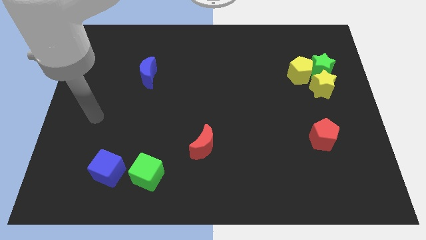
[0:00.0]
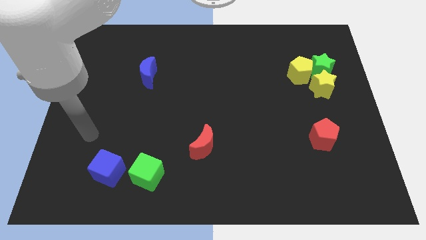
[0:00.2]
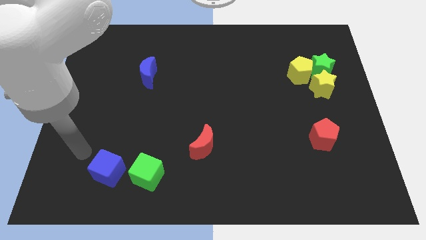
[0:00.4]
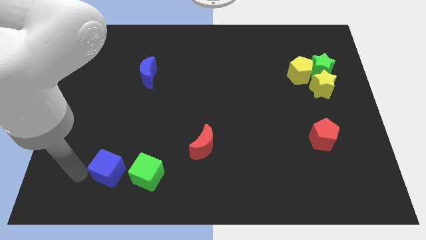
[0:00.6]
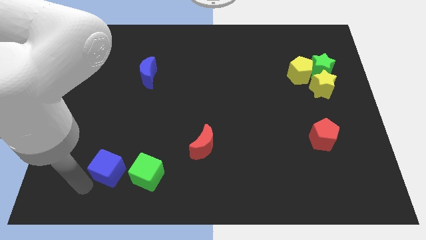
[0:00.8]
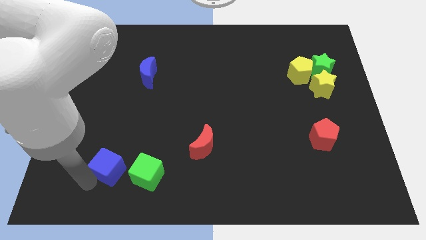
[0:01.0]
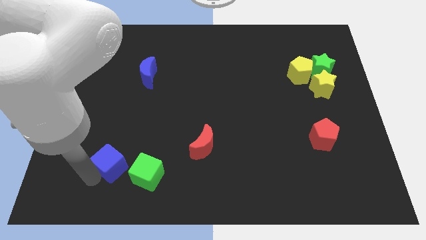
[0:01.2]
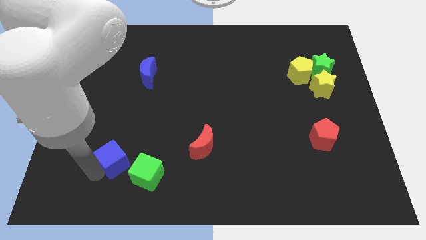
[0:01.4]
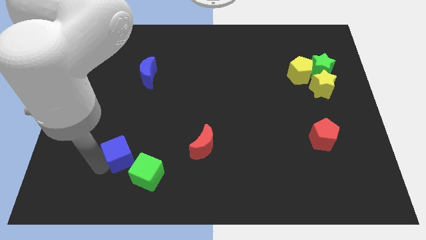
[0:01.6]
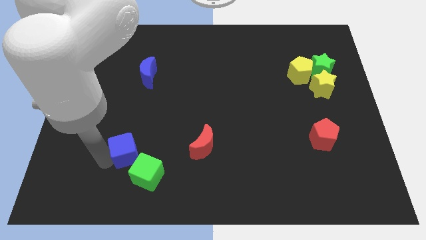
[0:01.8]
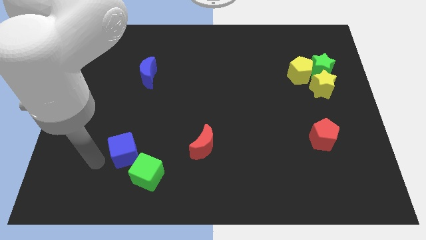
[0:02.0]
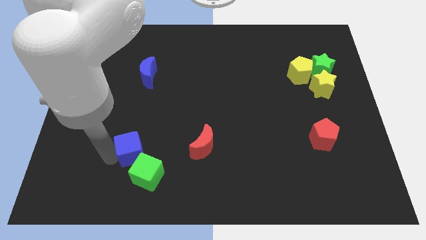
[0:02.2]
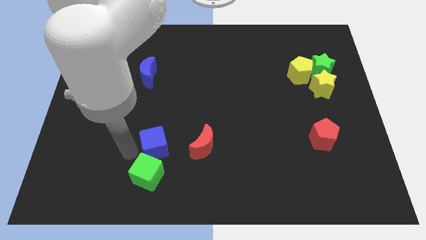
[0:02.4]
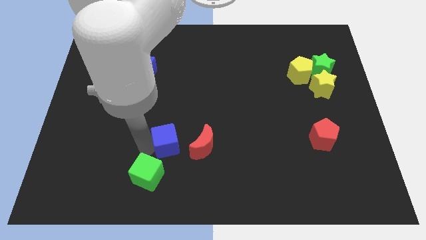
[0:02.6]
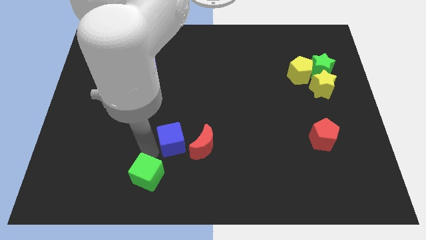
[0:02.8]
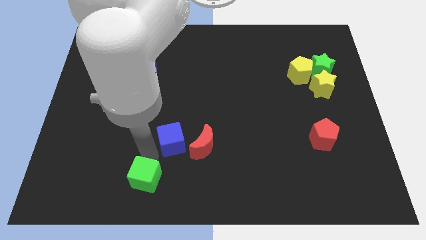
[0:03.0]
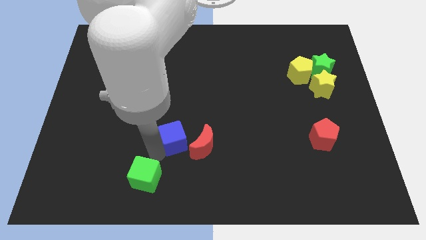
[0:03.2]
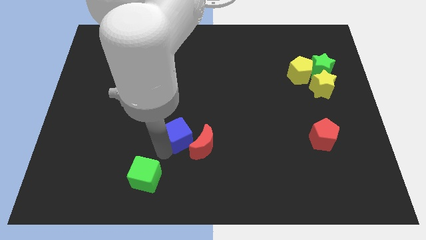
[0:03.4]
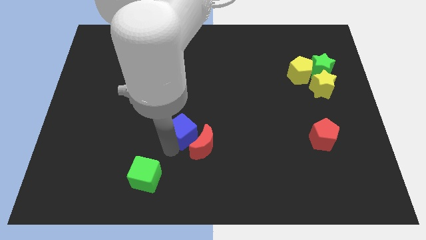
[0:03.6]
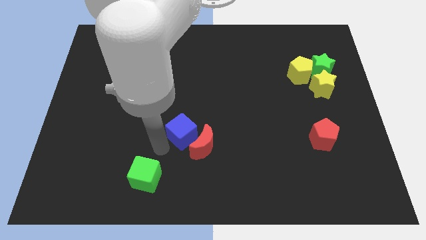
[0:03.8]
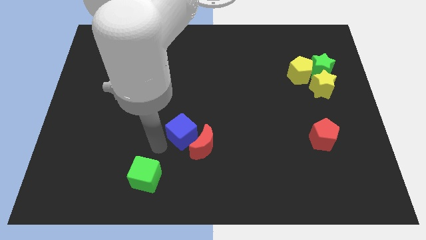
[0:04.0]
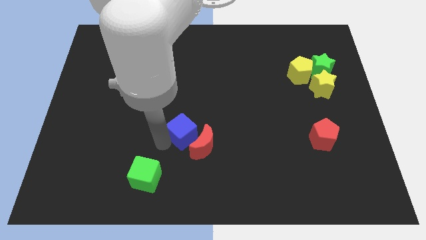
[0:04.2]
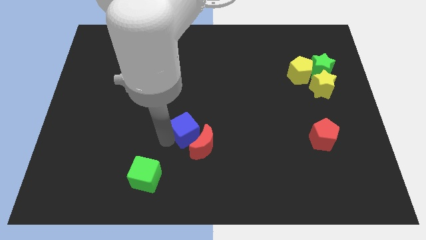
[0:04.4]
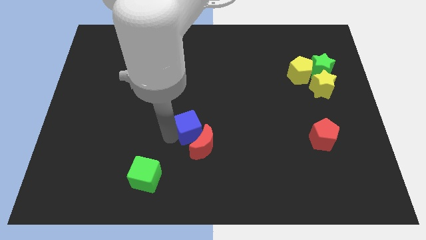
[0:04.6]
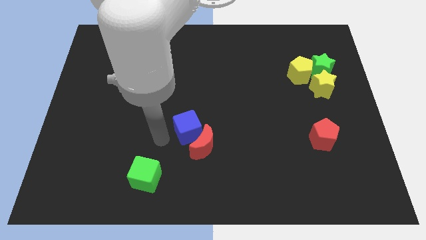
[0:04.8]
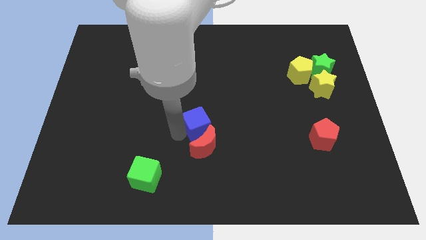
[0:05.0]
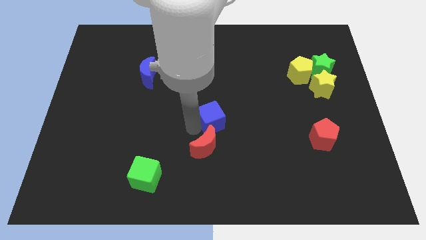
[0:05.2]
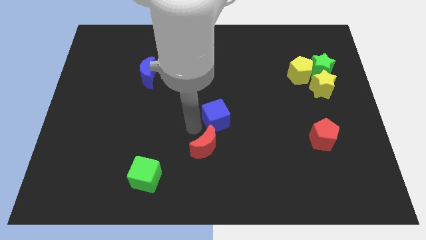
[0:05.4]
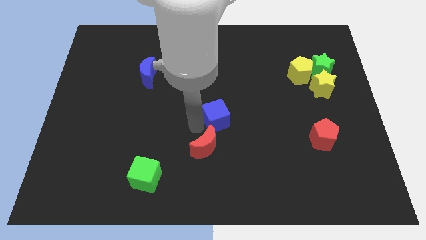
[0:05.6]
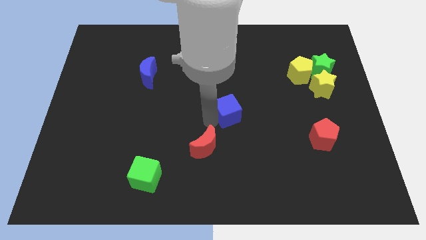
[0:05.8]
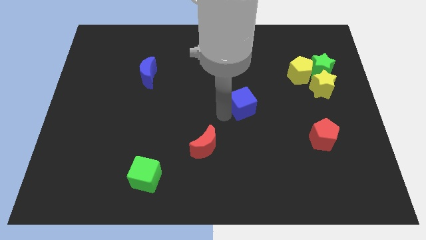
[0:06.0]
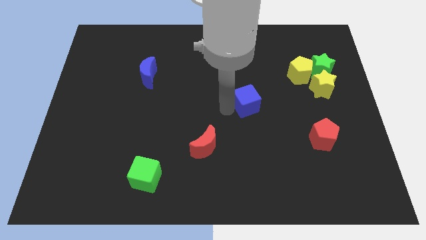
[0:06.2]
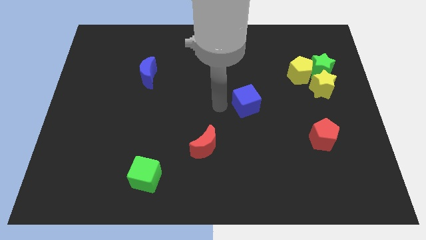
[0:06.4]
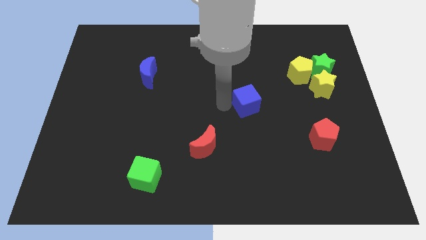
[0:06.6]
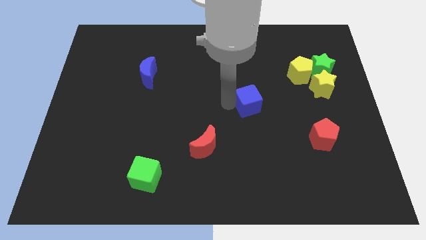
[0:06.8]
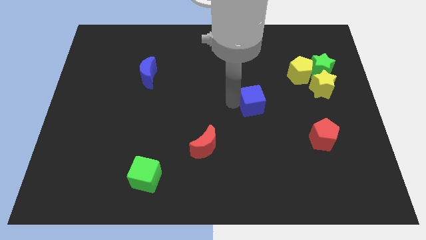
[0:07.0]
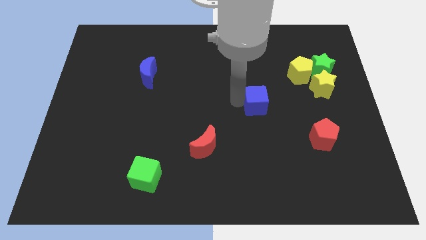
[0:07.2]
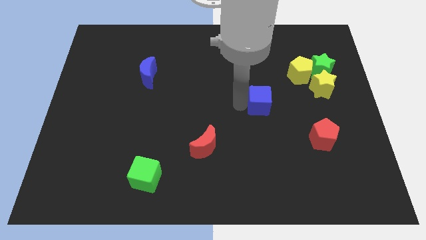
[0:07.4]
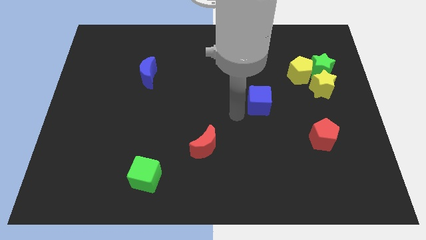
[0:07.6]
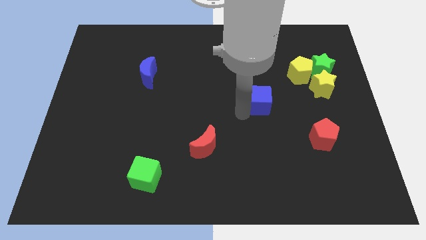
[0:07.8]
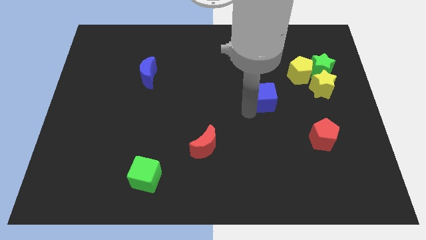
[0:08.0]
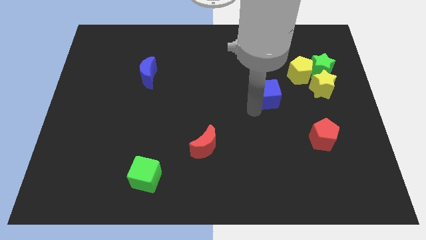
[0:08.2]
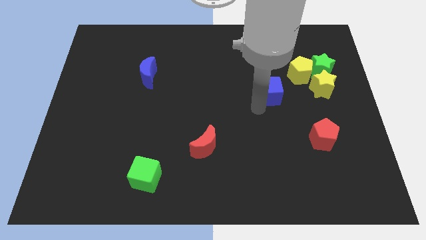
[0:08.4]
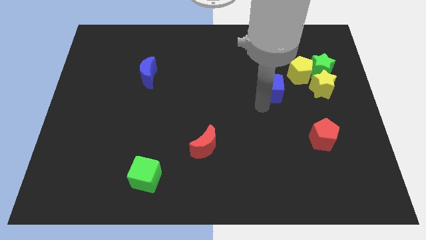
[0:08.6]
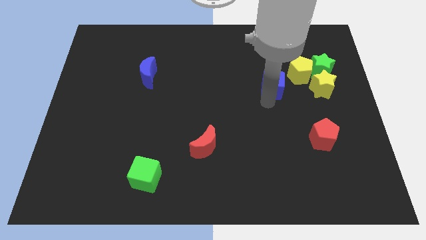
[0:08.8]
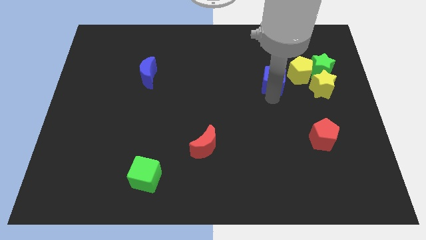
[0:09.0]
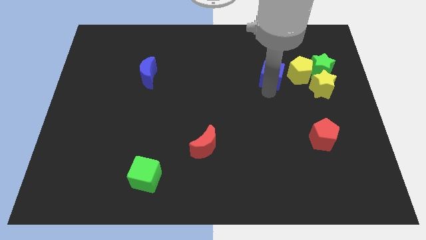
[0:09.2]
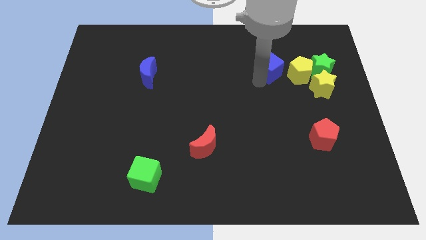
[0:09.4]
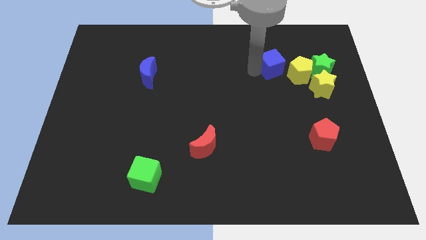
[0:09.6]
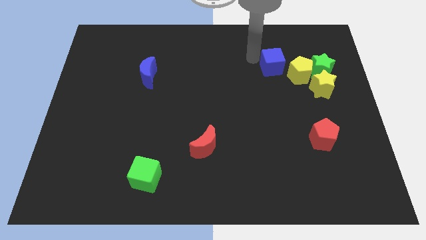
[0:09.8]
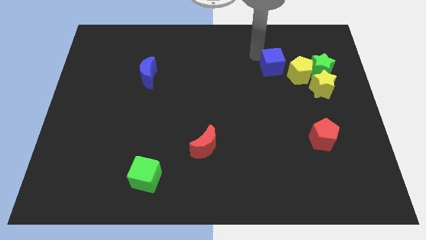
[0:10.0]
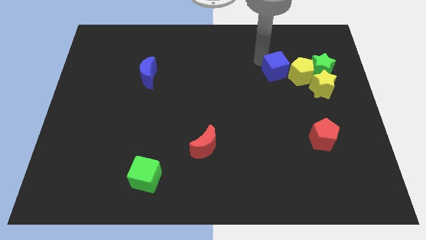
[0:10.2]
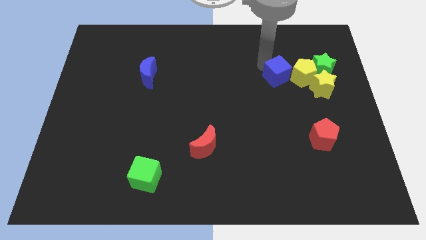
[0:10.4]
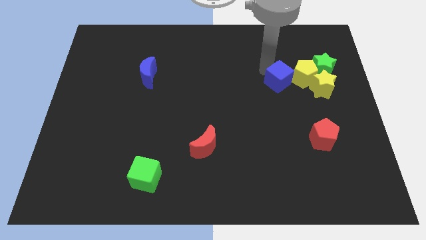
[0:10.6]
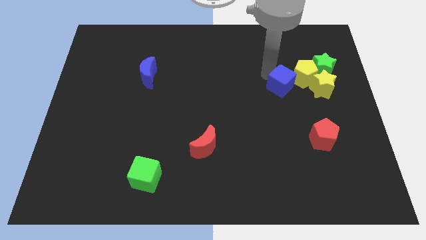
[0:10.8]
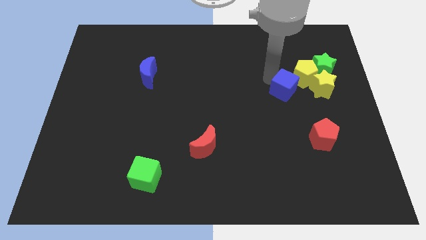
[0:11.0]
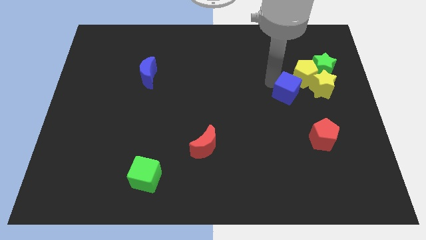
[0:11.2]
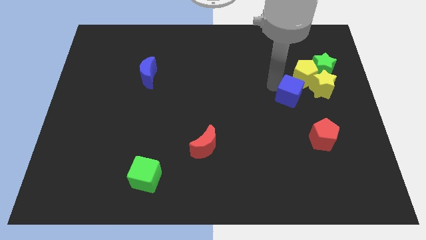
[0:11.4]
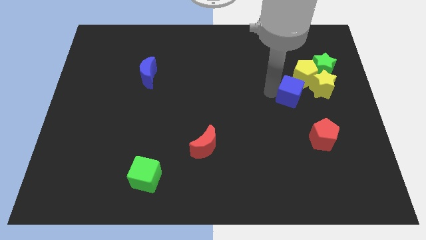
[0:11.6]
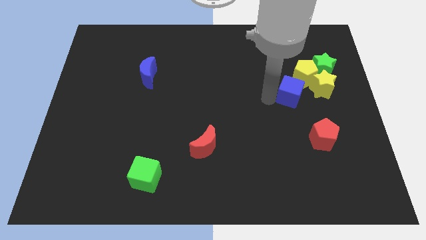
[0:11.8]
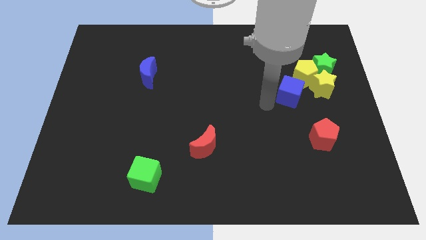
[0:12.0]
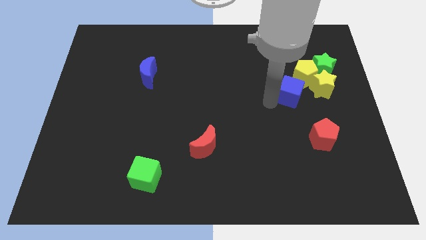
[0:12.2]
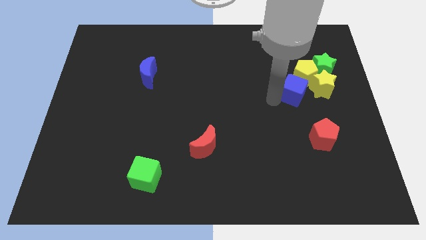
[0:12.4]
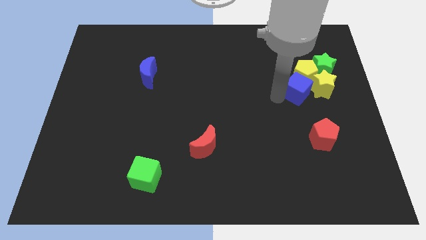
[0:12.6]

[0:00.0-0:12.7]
put the blue cube towards the yellow star
